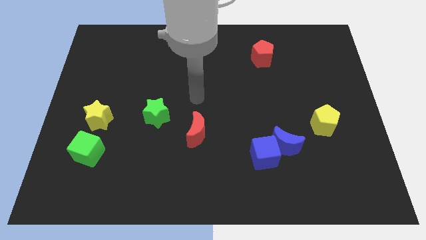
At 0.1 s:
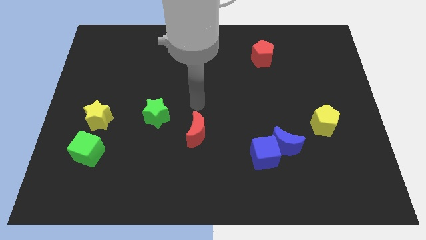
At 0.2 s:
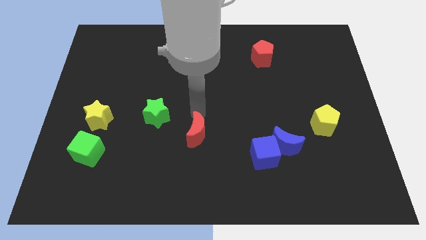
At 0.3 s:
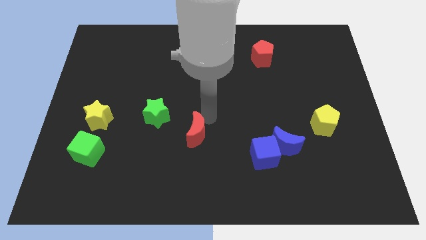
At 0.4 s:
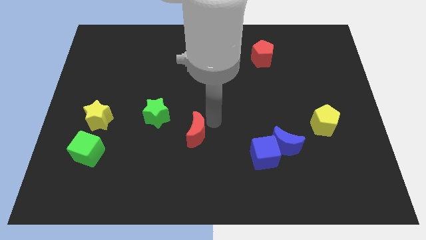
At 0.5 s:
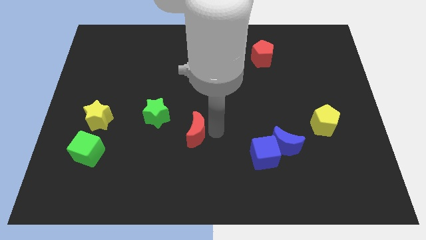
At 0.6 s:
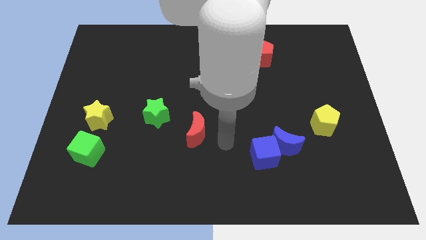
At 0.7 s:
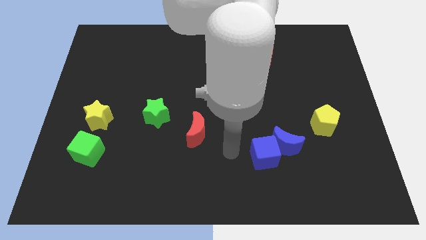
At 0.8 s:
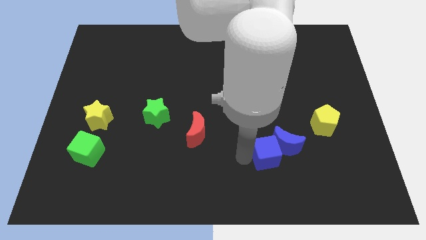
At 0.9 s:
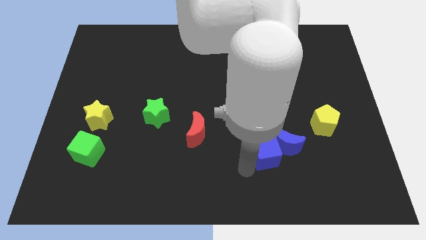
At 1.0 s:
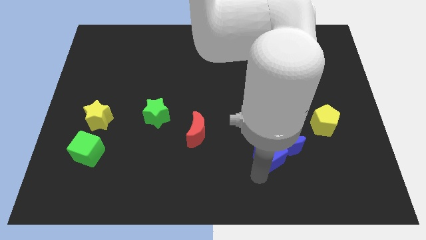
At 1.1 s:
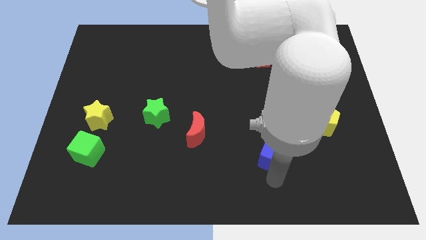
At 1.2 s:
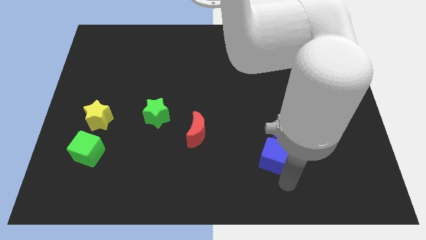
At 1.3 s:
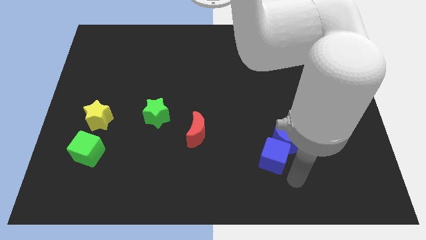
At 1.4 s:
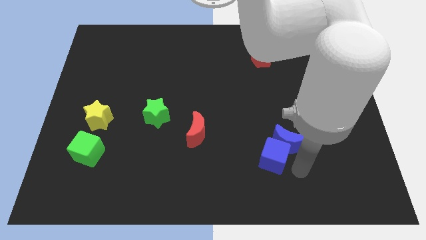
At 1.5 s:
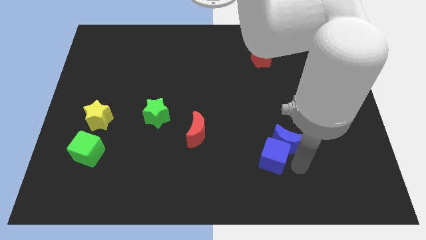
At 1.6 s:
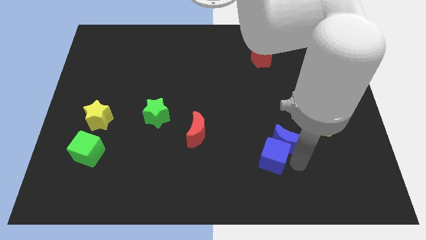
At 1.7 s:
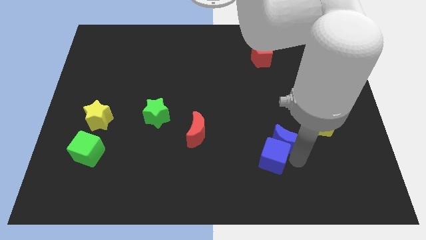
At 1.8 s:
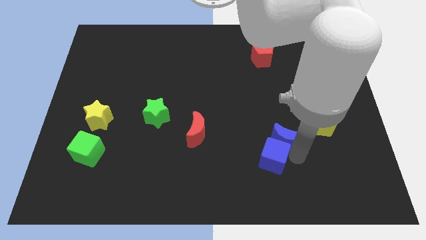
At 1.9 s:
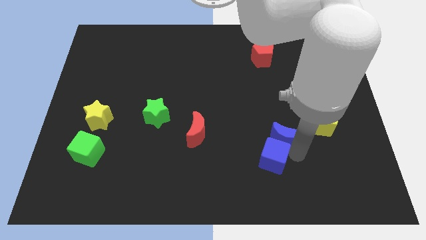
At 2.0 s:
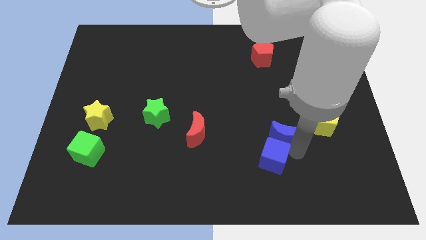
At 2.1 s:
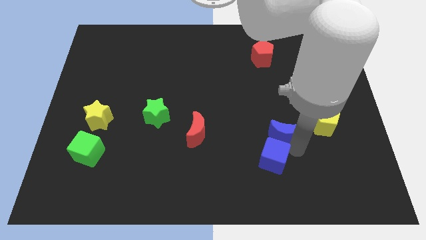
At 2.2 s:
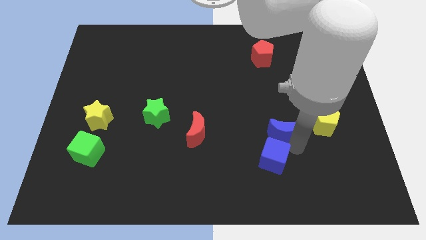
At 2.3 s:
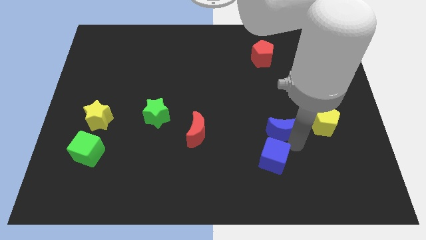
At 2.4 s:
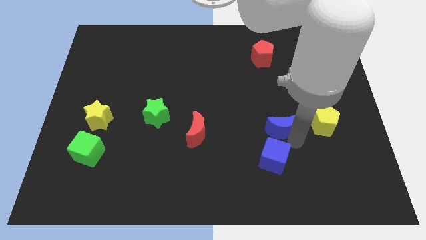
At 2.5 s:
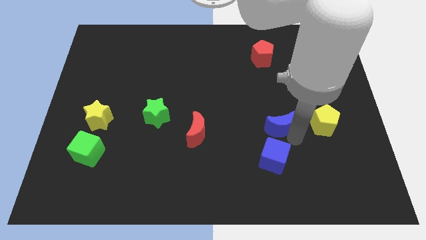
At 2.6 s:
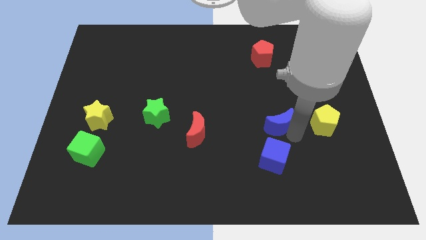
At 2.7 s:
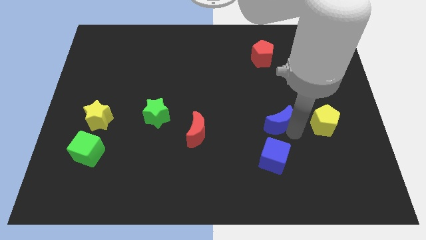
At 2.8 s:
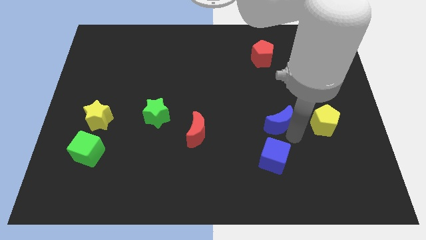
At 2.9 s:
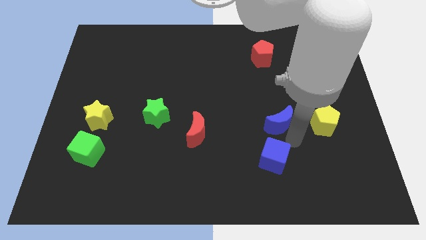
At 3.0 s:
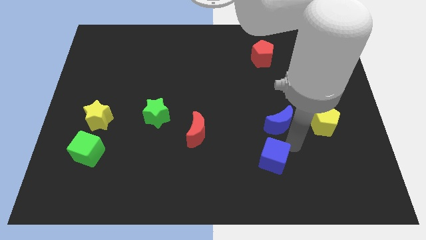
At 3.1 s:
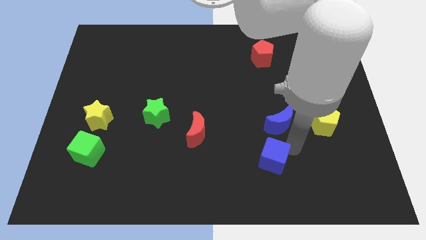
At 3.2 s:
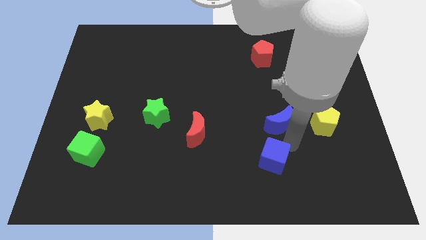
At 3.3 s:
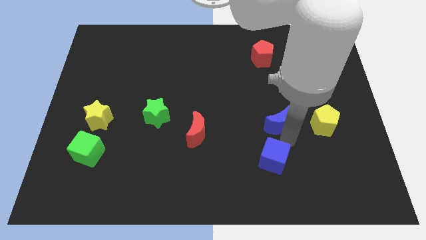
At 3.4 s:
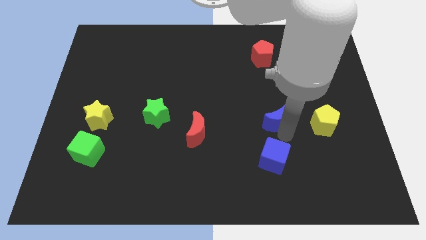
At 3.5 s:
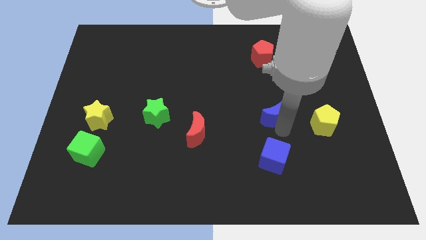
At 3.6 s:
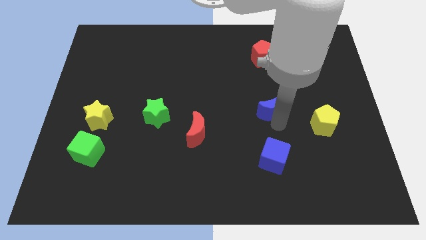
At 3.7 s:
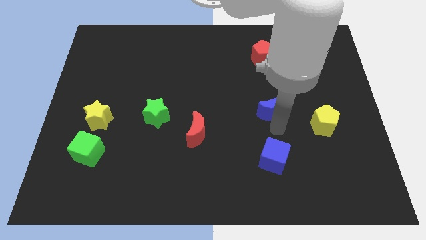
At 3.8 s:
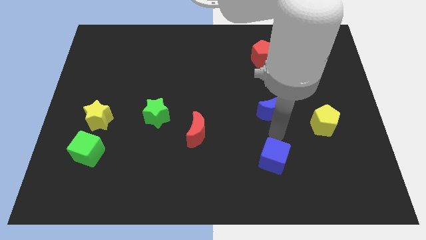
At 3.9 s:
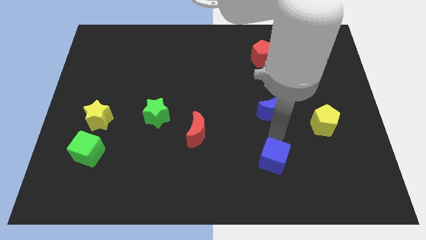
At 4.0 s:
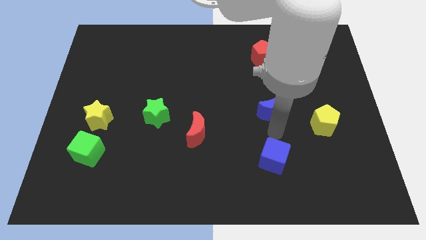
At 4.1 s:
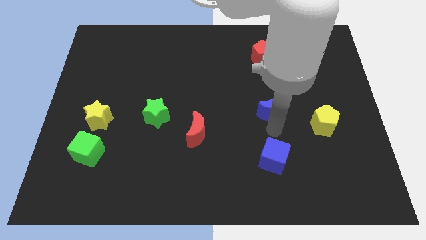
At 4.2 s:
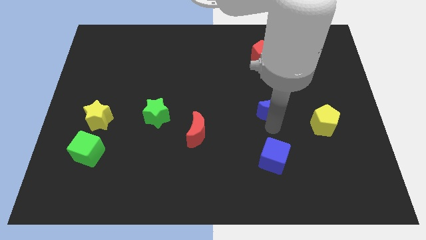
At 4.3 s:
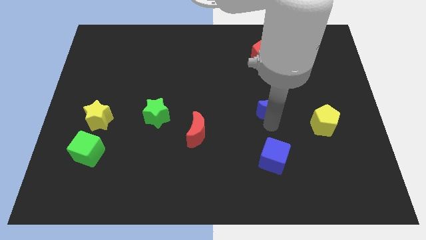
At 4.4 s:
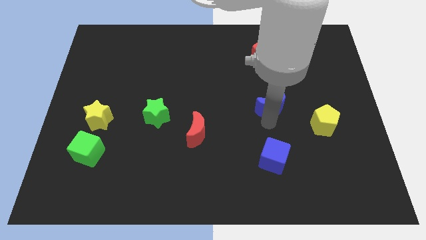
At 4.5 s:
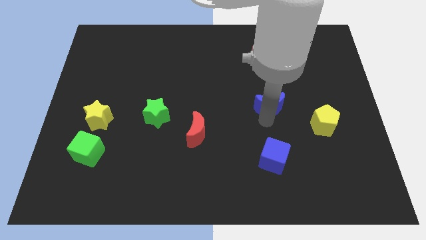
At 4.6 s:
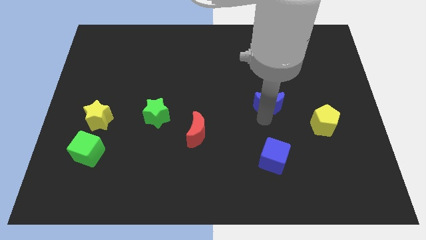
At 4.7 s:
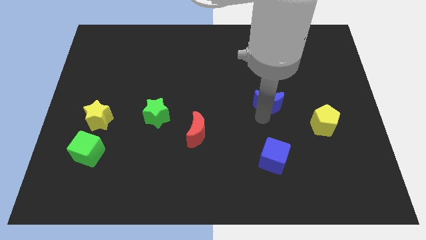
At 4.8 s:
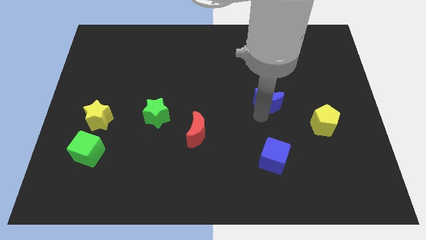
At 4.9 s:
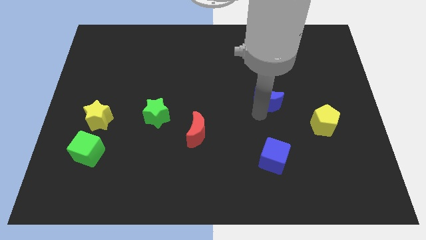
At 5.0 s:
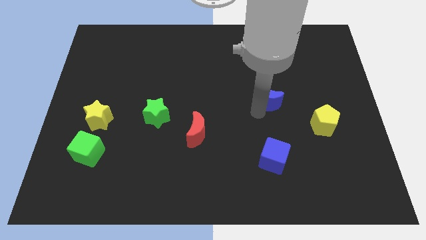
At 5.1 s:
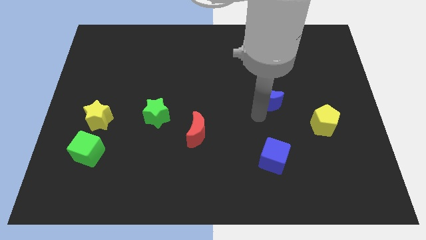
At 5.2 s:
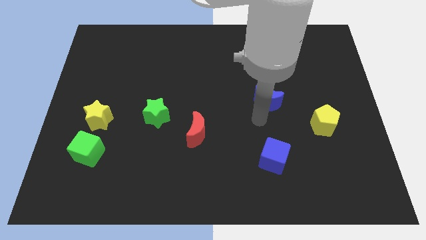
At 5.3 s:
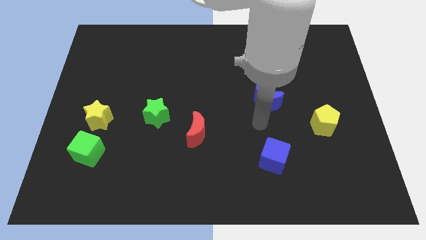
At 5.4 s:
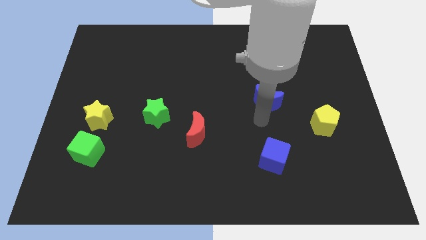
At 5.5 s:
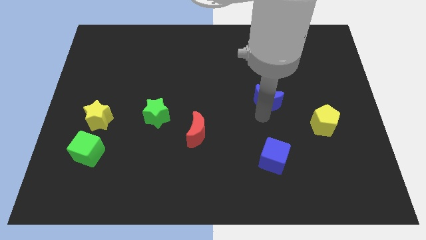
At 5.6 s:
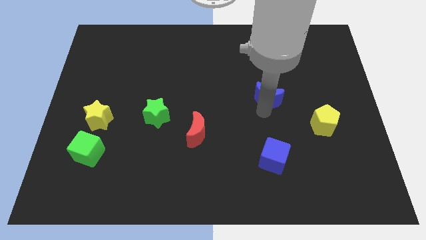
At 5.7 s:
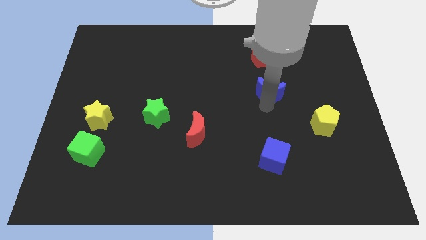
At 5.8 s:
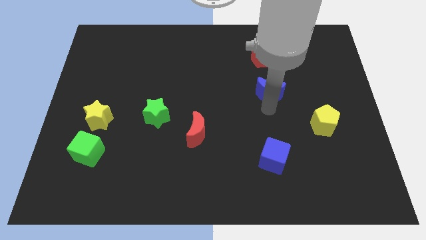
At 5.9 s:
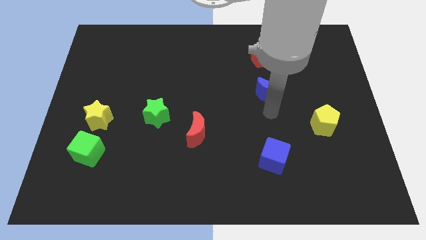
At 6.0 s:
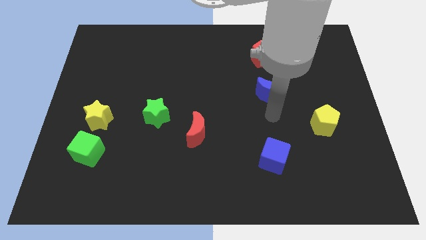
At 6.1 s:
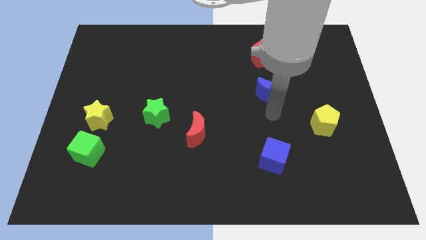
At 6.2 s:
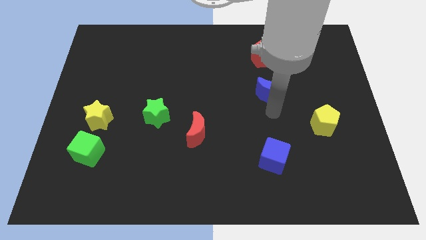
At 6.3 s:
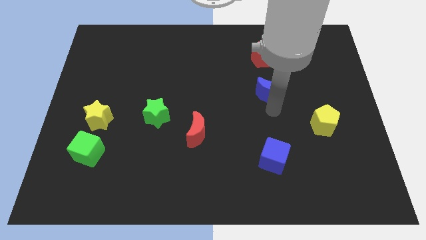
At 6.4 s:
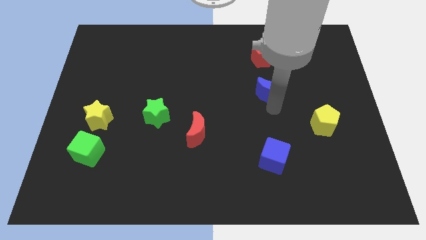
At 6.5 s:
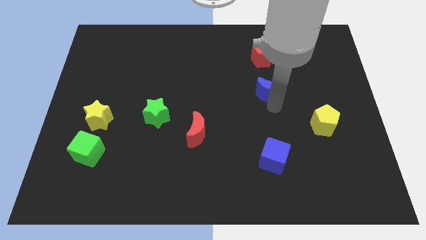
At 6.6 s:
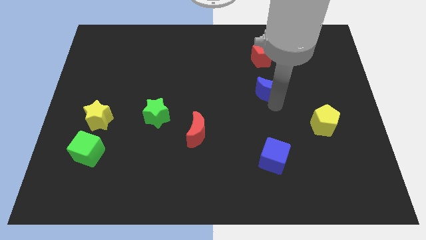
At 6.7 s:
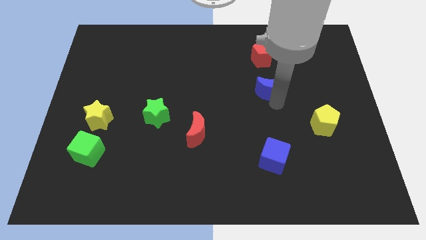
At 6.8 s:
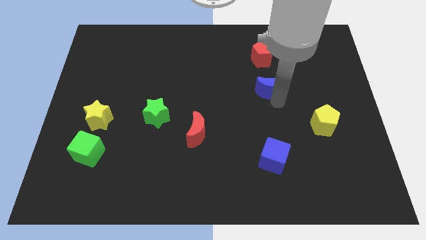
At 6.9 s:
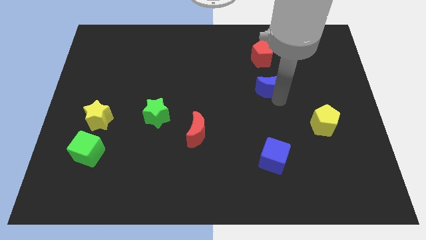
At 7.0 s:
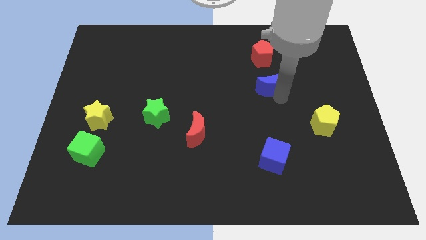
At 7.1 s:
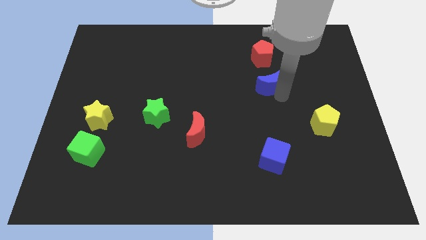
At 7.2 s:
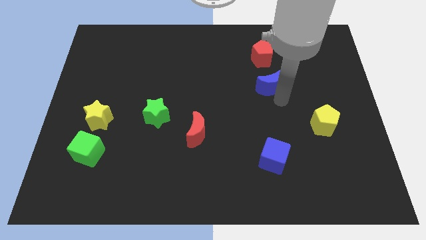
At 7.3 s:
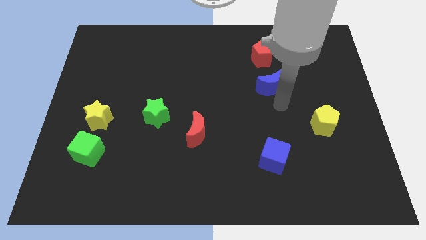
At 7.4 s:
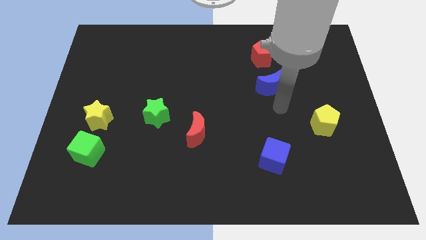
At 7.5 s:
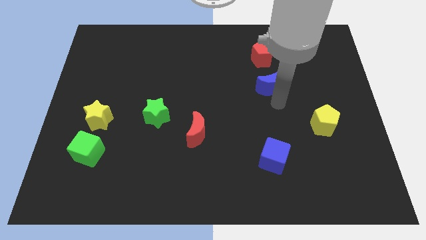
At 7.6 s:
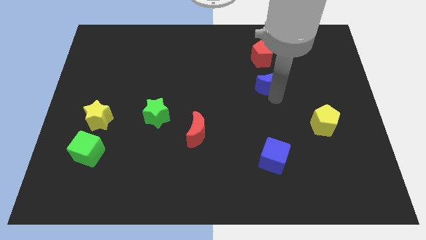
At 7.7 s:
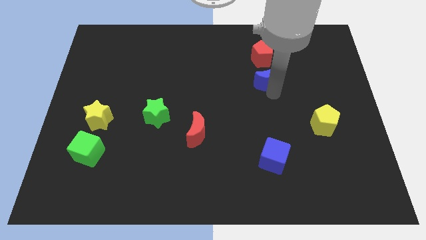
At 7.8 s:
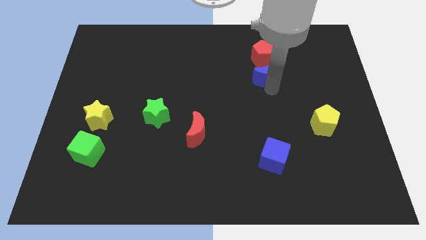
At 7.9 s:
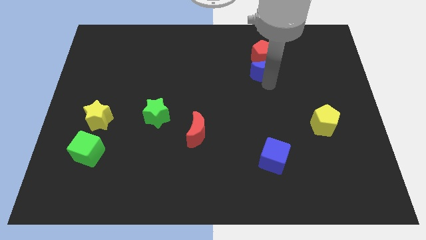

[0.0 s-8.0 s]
put the blue moon towards the red pentagon
